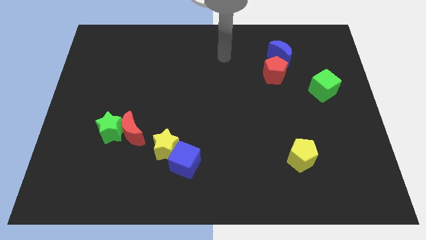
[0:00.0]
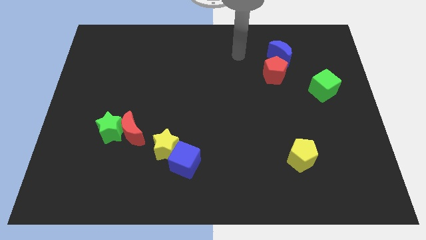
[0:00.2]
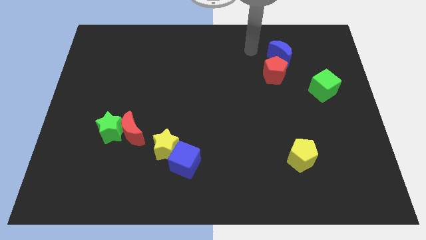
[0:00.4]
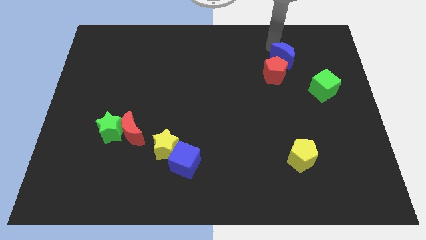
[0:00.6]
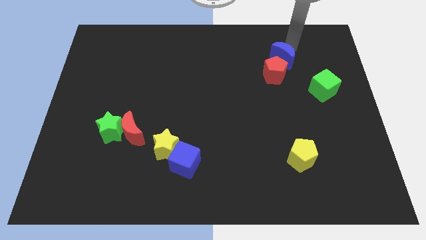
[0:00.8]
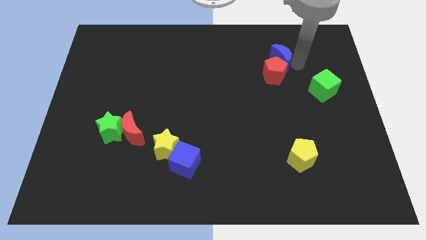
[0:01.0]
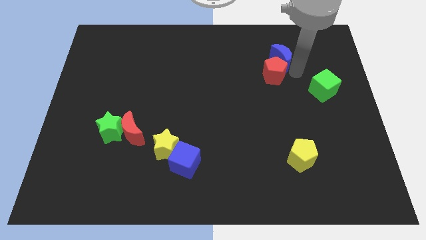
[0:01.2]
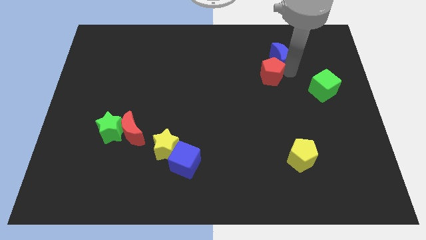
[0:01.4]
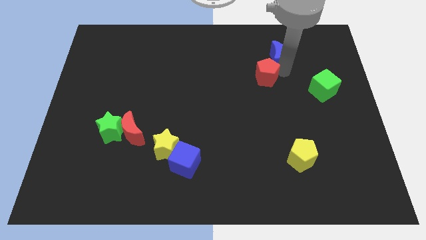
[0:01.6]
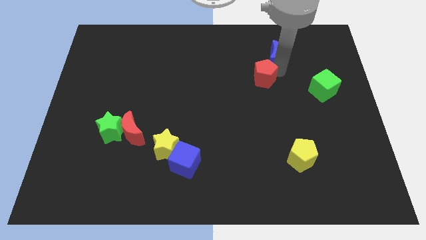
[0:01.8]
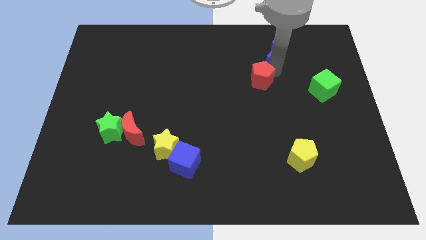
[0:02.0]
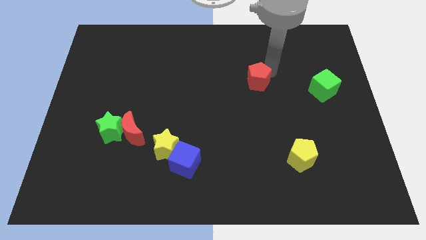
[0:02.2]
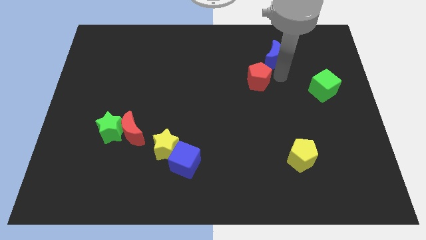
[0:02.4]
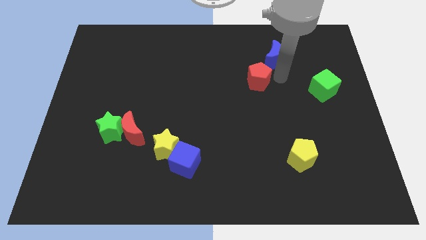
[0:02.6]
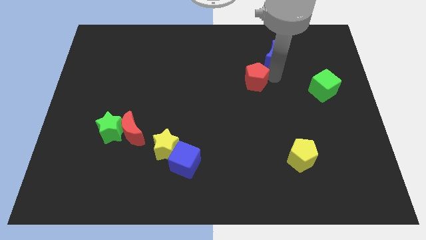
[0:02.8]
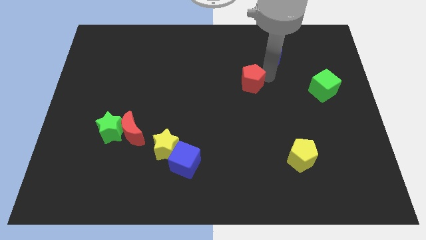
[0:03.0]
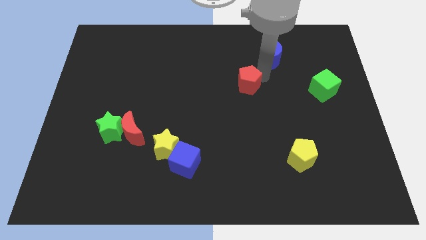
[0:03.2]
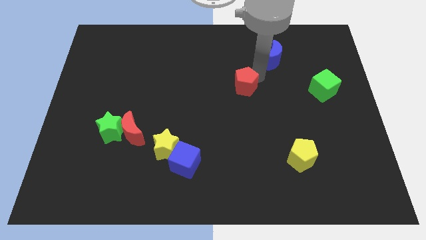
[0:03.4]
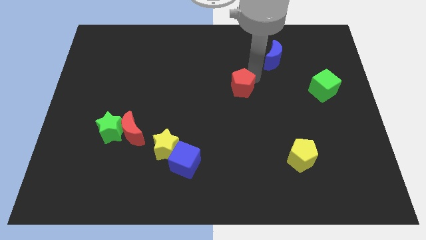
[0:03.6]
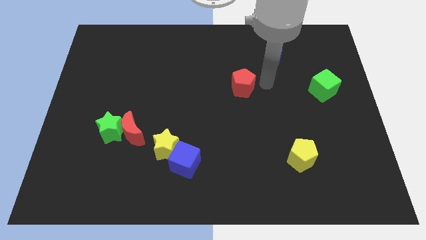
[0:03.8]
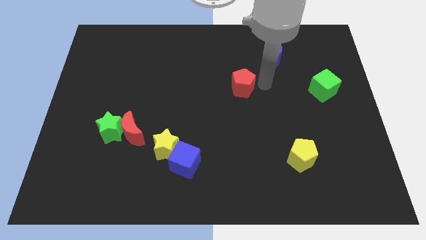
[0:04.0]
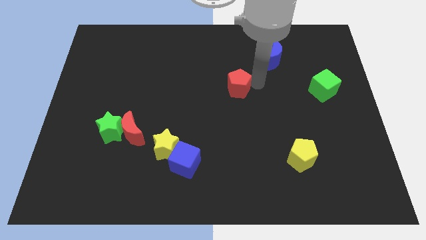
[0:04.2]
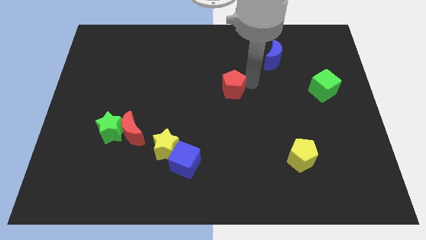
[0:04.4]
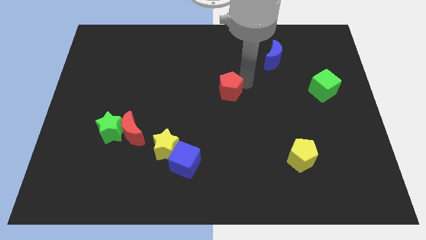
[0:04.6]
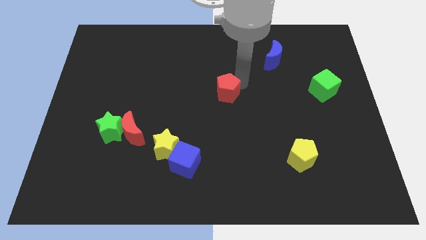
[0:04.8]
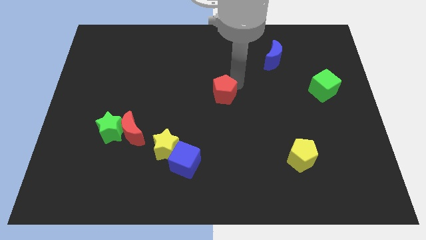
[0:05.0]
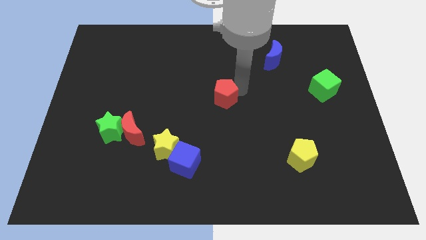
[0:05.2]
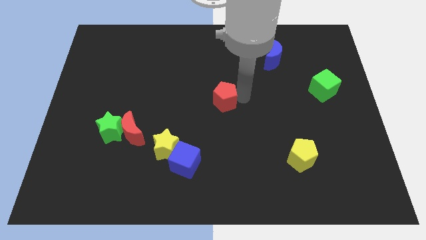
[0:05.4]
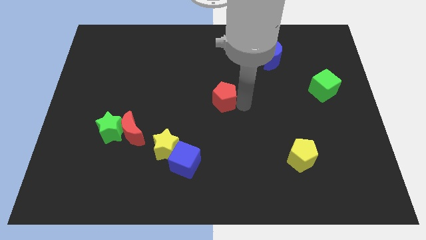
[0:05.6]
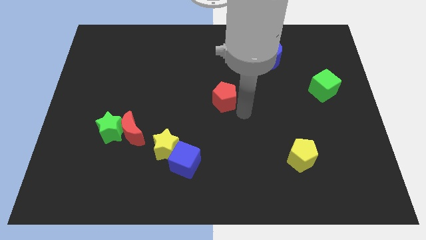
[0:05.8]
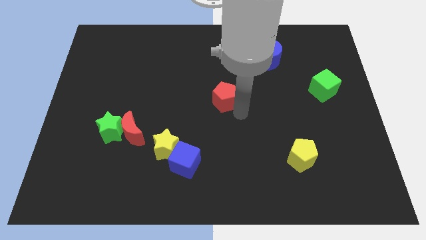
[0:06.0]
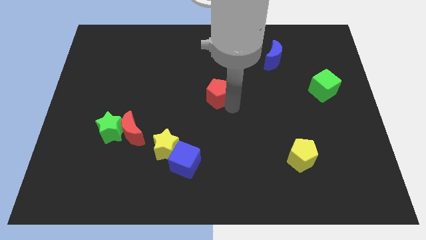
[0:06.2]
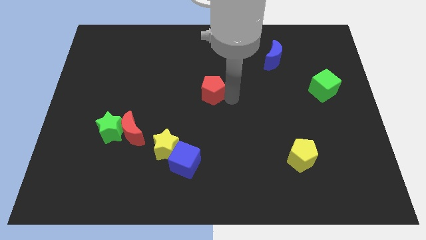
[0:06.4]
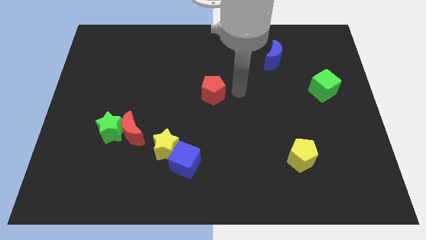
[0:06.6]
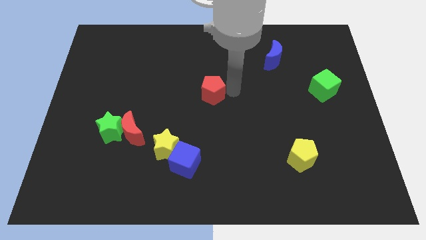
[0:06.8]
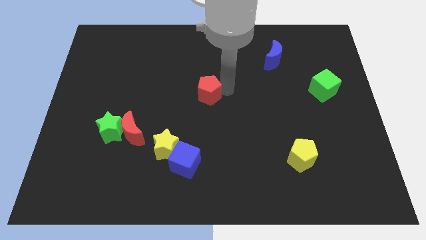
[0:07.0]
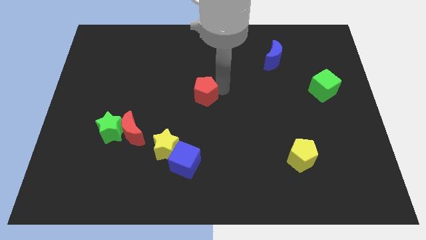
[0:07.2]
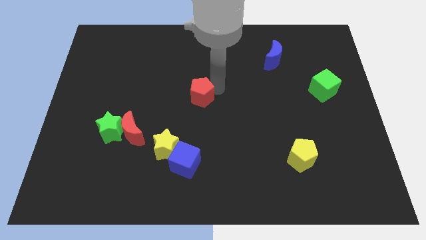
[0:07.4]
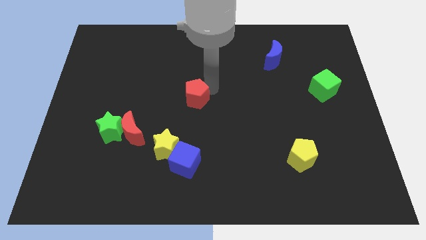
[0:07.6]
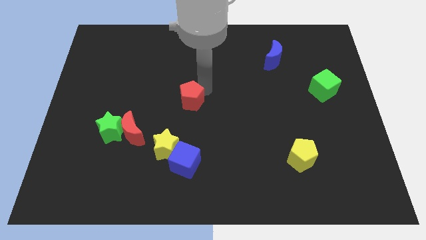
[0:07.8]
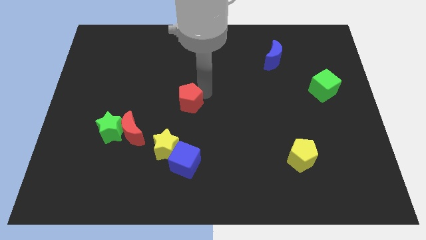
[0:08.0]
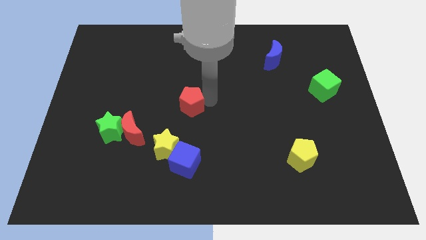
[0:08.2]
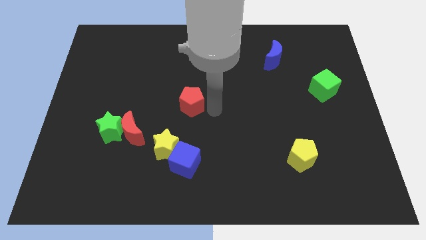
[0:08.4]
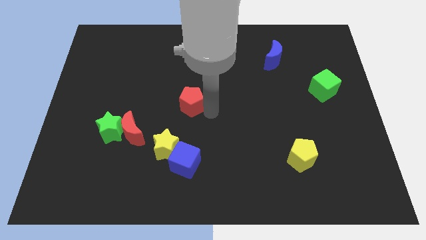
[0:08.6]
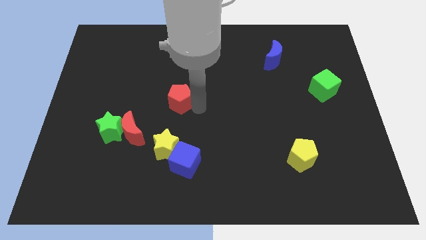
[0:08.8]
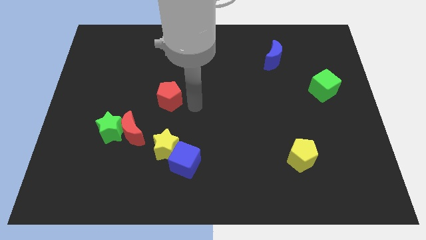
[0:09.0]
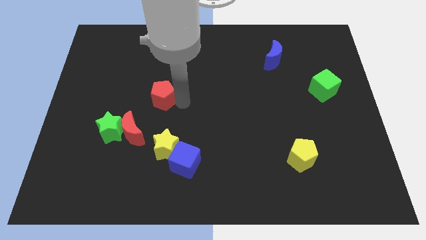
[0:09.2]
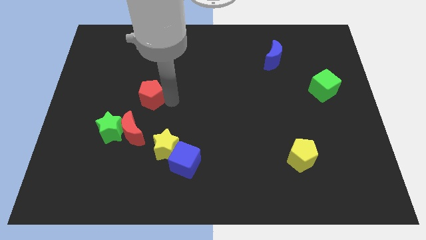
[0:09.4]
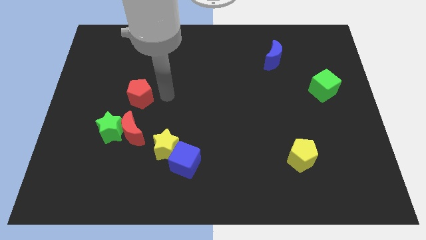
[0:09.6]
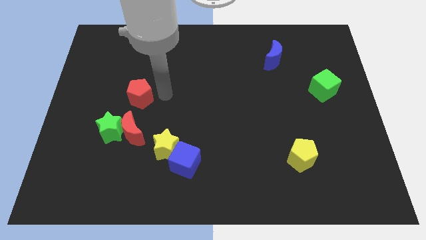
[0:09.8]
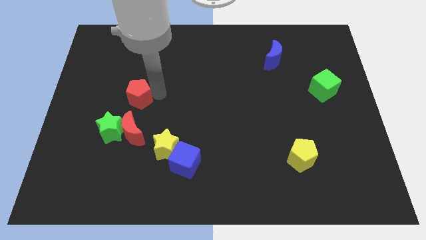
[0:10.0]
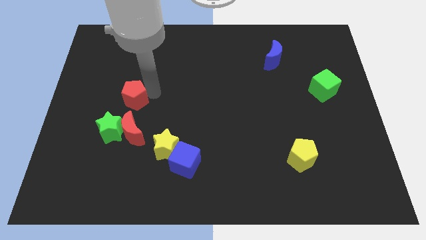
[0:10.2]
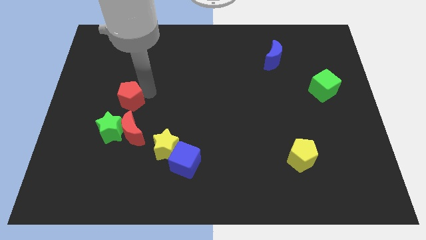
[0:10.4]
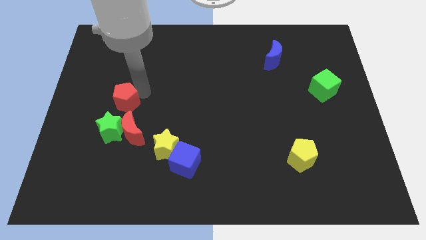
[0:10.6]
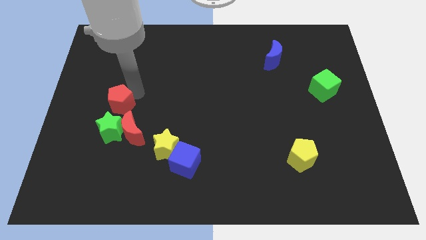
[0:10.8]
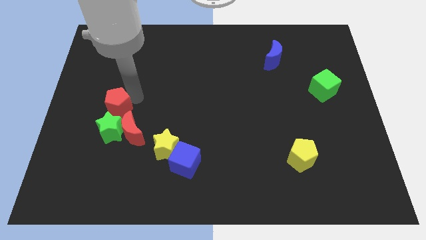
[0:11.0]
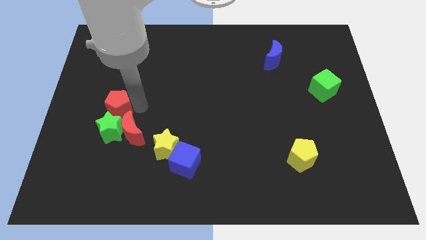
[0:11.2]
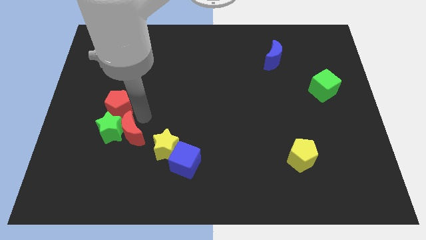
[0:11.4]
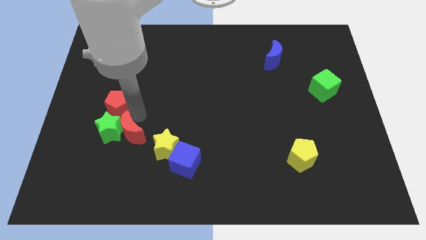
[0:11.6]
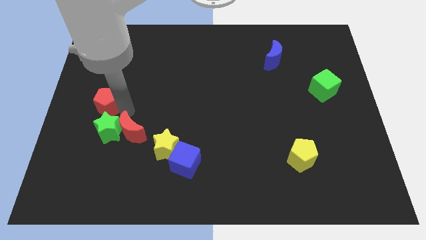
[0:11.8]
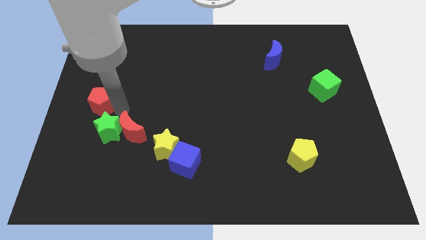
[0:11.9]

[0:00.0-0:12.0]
move the red pentagon to the left side
